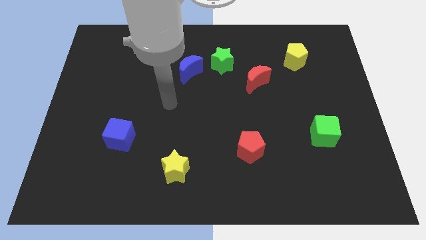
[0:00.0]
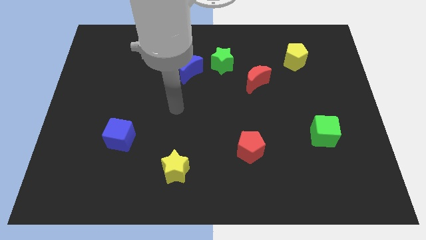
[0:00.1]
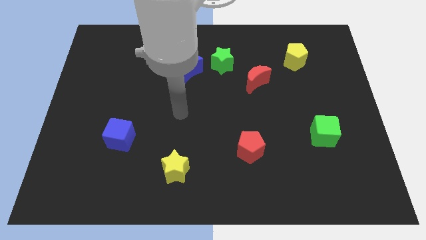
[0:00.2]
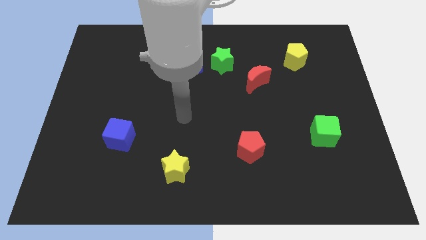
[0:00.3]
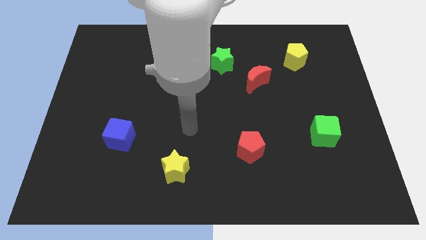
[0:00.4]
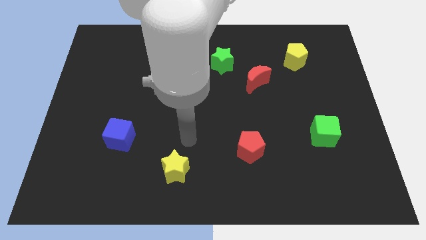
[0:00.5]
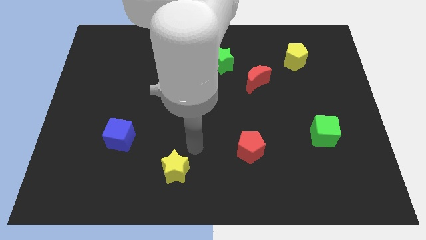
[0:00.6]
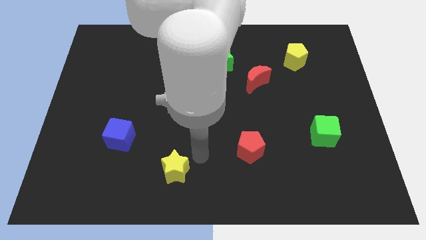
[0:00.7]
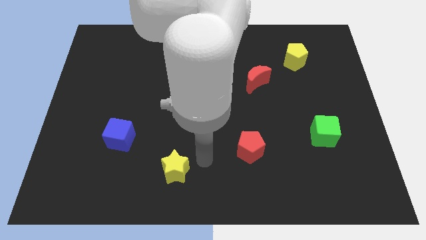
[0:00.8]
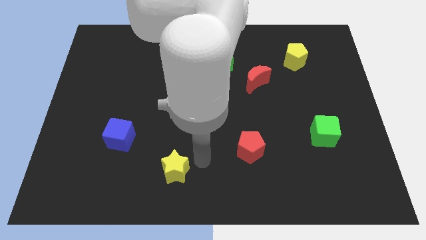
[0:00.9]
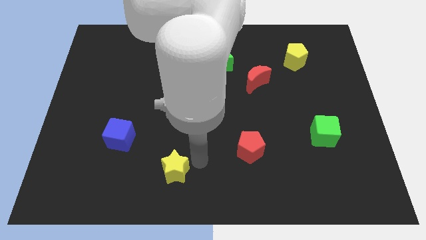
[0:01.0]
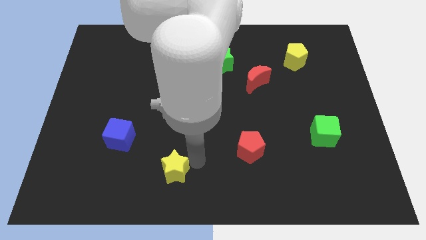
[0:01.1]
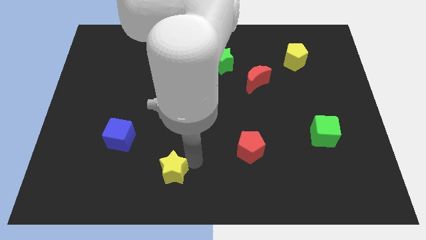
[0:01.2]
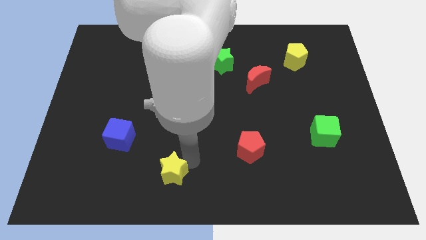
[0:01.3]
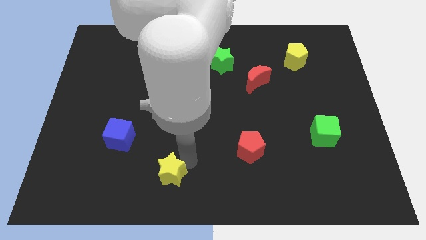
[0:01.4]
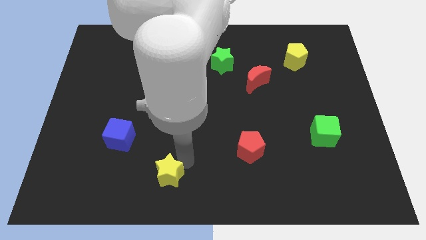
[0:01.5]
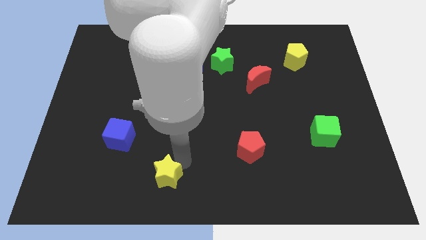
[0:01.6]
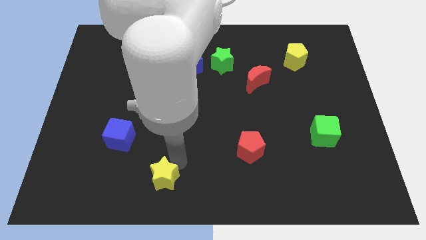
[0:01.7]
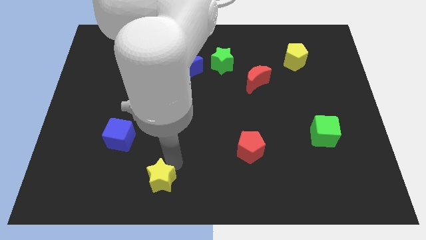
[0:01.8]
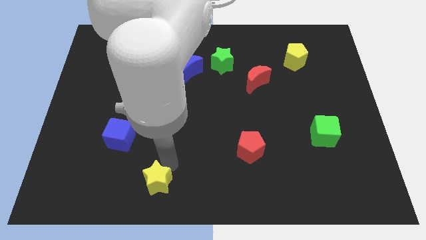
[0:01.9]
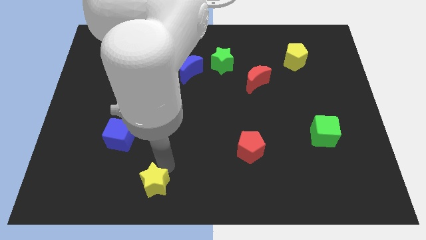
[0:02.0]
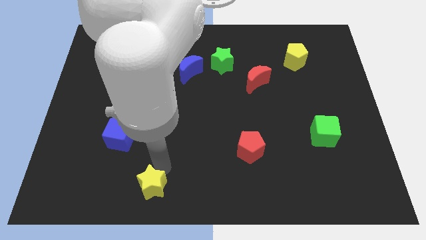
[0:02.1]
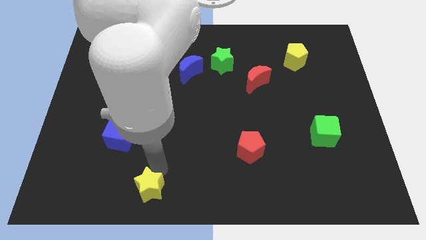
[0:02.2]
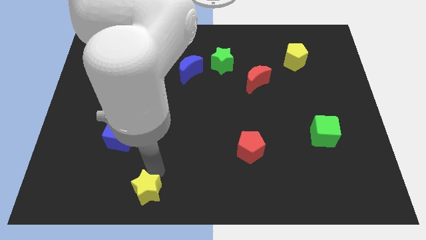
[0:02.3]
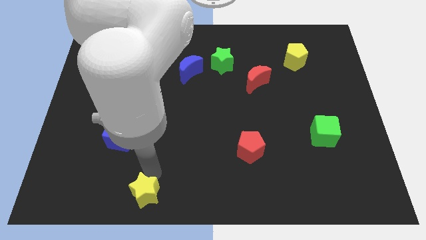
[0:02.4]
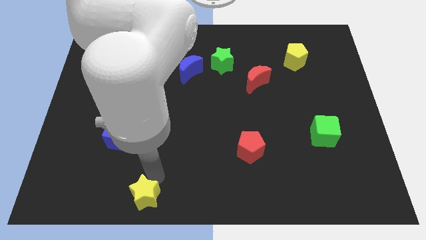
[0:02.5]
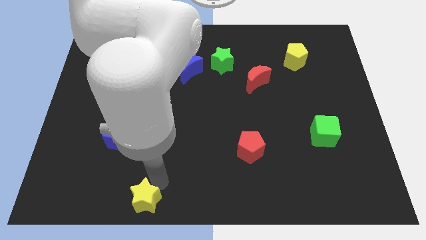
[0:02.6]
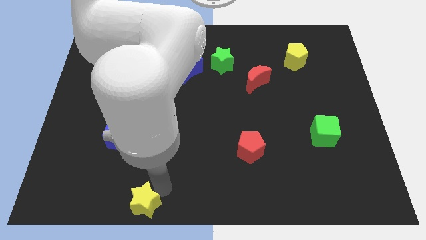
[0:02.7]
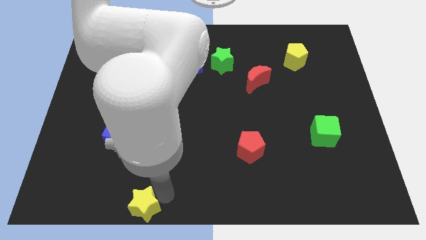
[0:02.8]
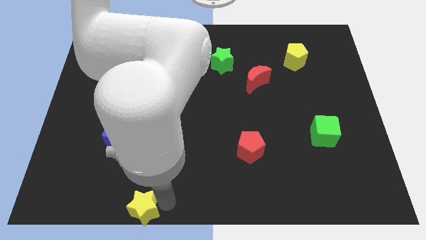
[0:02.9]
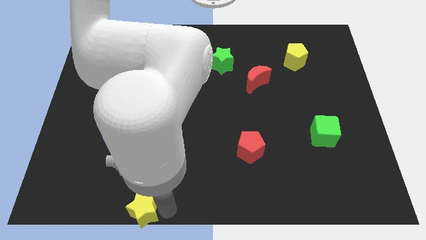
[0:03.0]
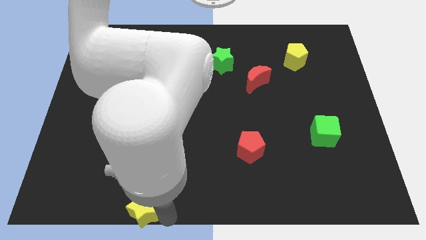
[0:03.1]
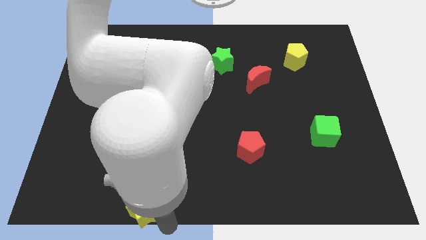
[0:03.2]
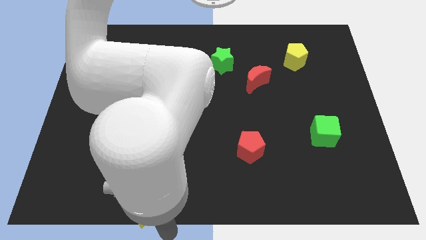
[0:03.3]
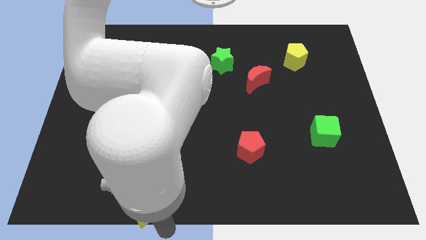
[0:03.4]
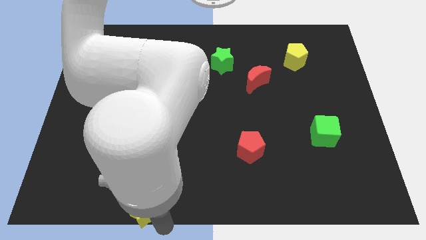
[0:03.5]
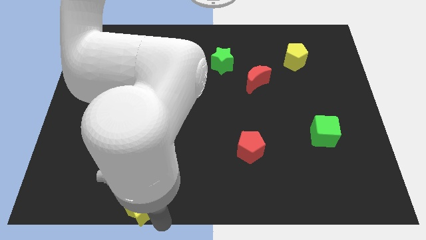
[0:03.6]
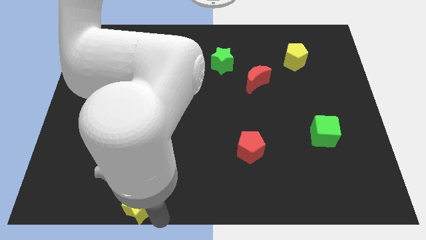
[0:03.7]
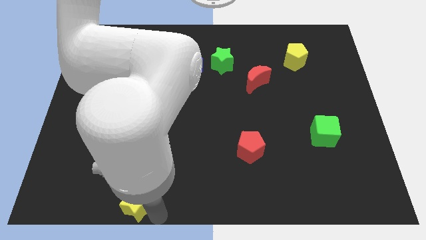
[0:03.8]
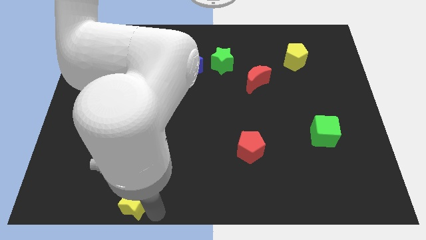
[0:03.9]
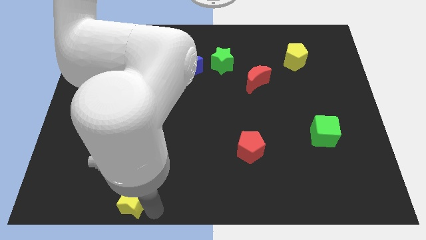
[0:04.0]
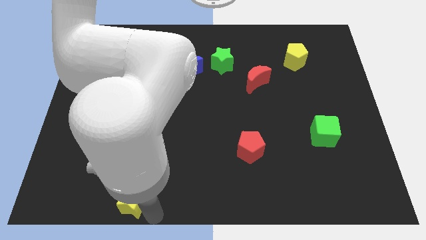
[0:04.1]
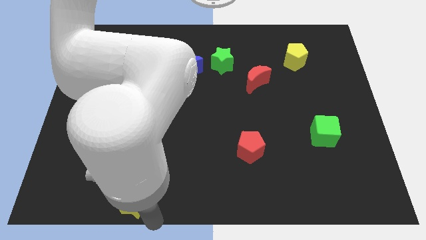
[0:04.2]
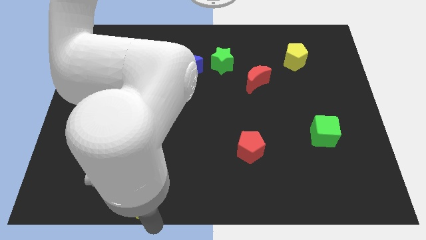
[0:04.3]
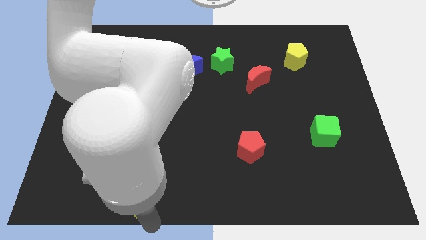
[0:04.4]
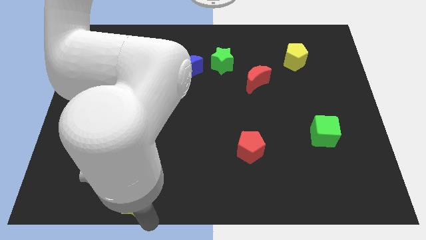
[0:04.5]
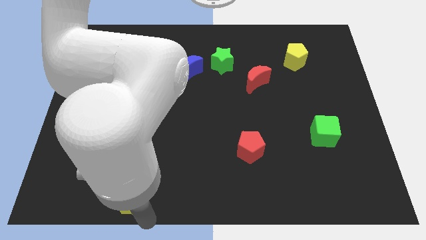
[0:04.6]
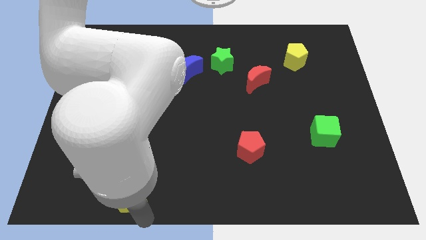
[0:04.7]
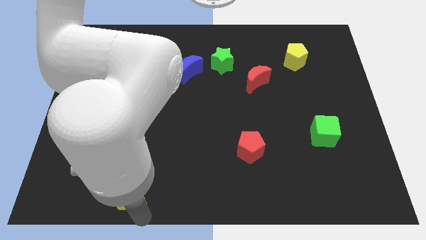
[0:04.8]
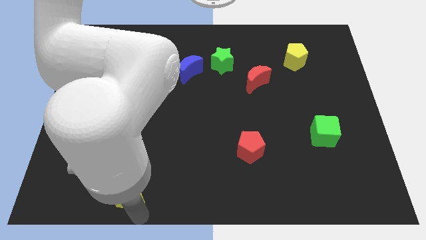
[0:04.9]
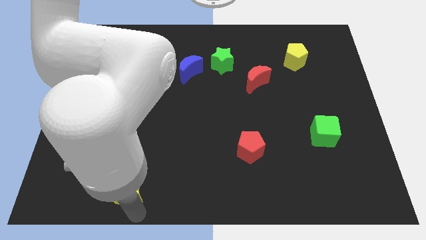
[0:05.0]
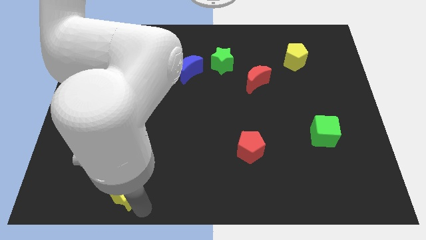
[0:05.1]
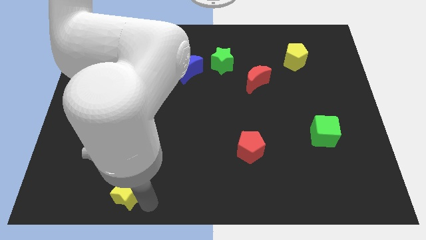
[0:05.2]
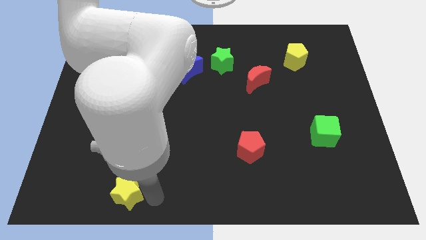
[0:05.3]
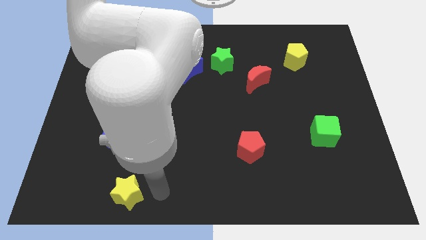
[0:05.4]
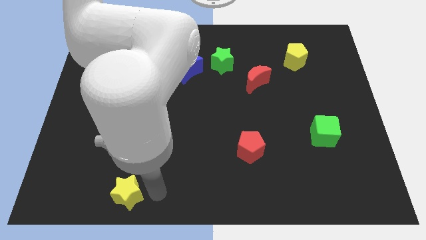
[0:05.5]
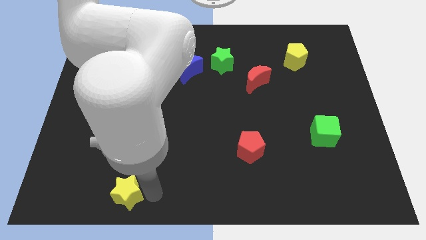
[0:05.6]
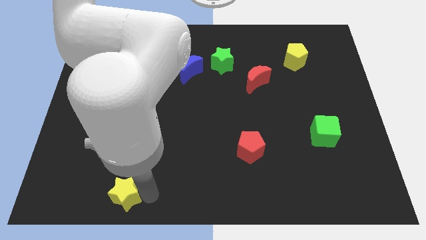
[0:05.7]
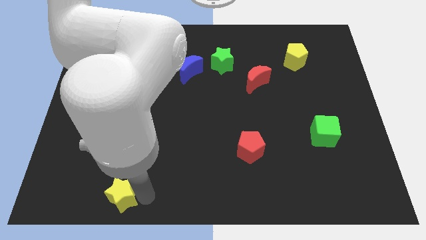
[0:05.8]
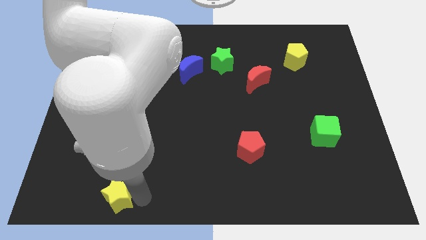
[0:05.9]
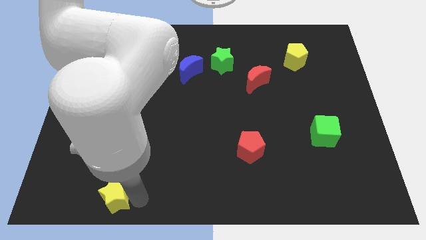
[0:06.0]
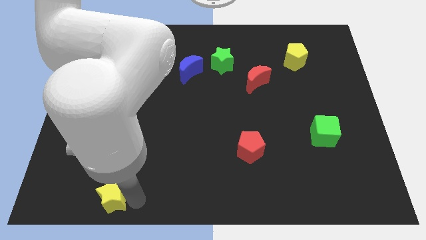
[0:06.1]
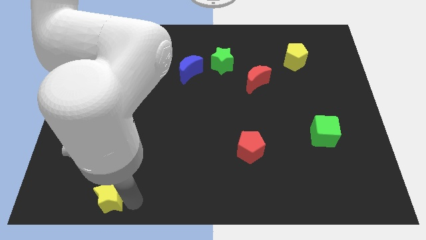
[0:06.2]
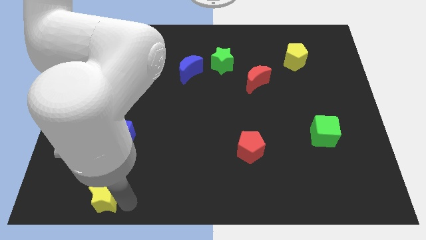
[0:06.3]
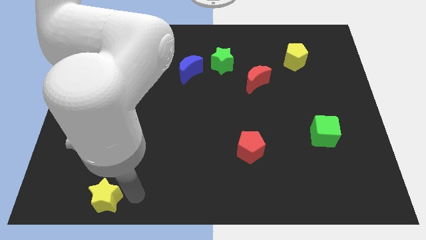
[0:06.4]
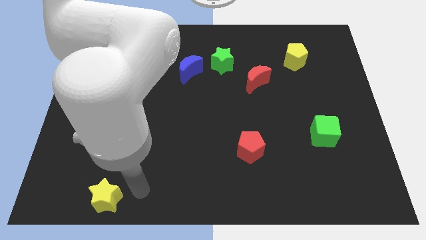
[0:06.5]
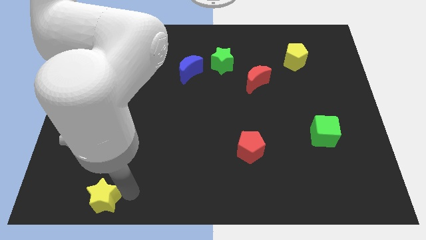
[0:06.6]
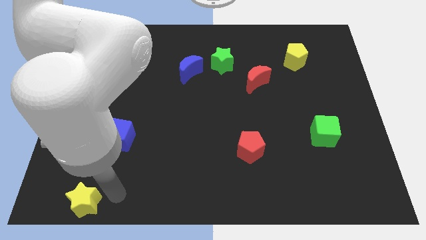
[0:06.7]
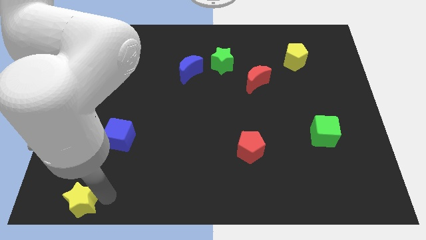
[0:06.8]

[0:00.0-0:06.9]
put the yellow star to the bottom left
